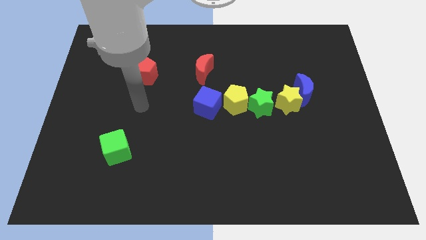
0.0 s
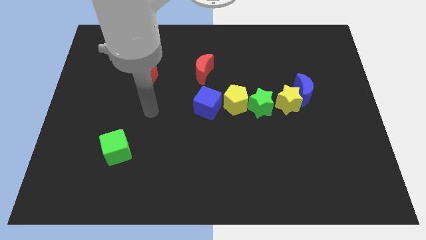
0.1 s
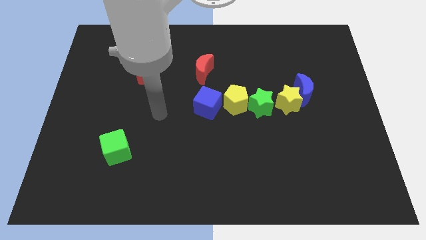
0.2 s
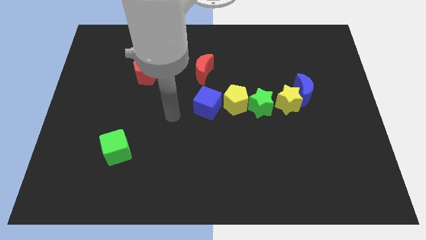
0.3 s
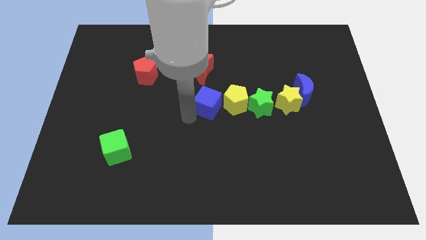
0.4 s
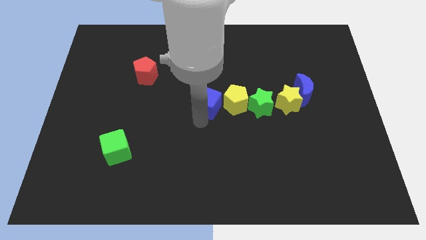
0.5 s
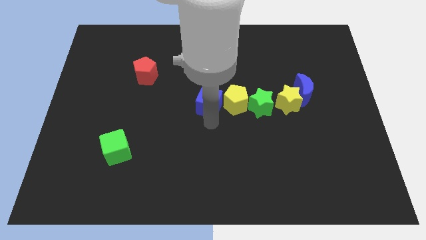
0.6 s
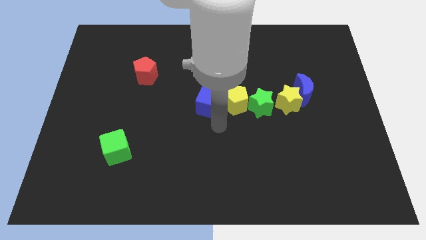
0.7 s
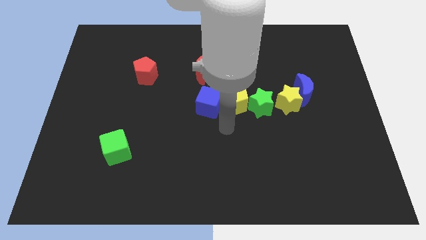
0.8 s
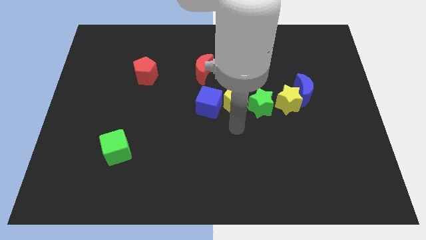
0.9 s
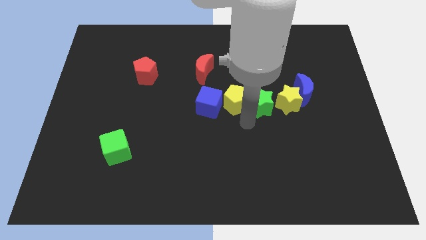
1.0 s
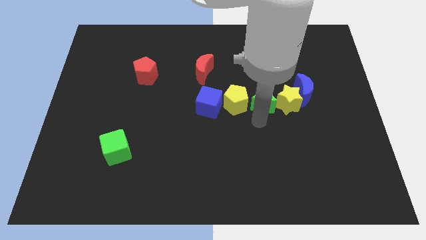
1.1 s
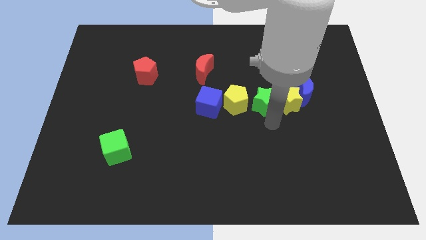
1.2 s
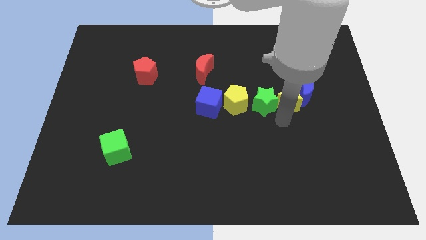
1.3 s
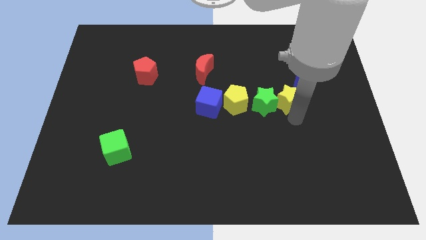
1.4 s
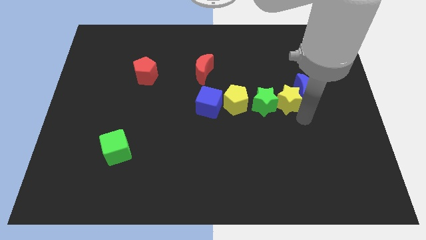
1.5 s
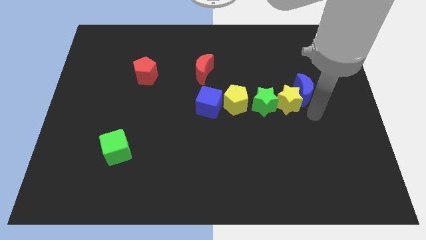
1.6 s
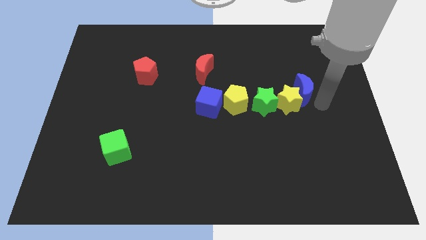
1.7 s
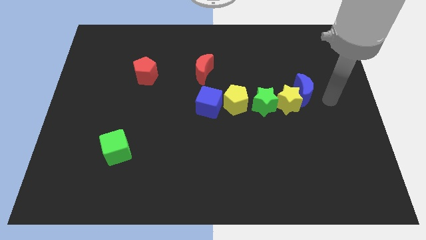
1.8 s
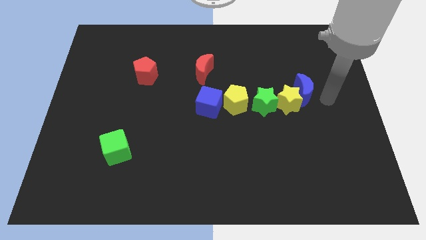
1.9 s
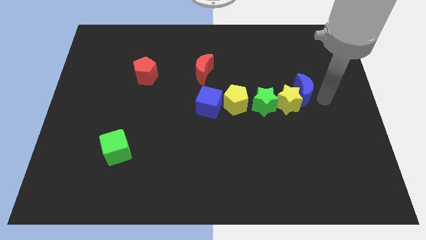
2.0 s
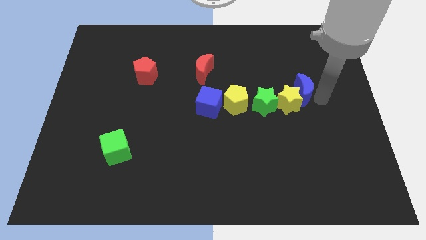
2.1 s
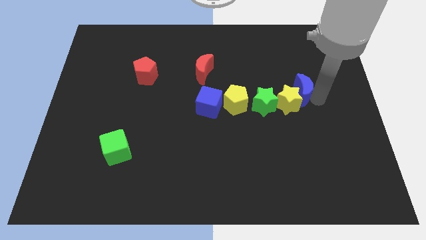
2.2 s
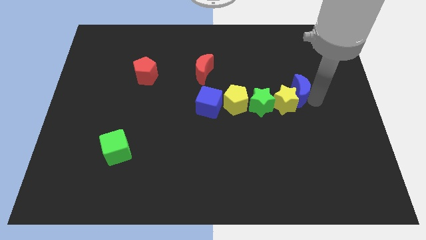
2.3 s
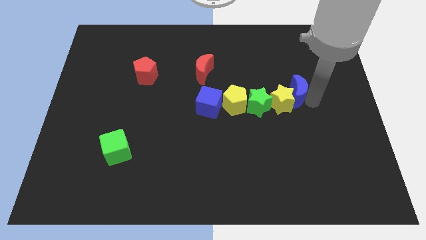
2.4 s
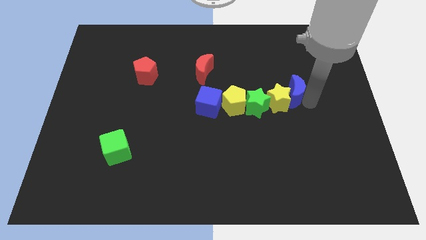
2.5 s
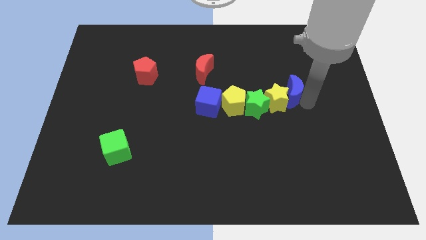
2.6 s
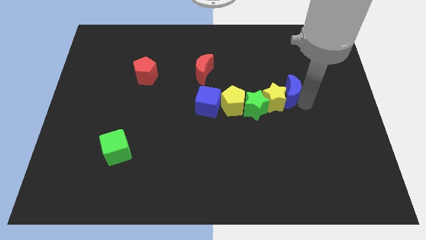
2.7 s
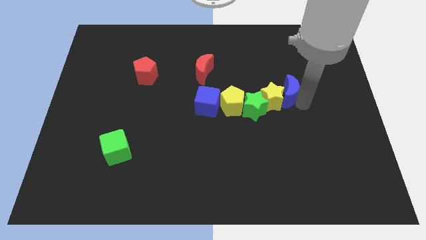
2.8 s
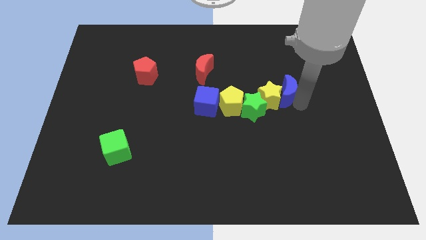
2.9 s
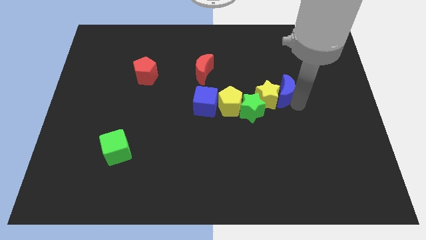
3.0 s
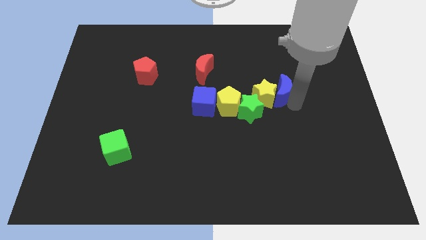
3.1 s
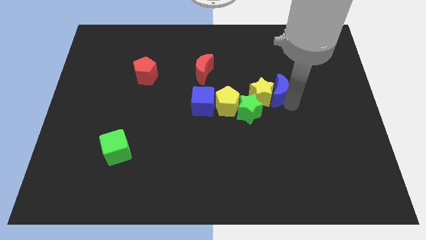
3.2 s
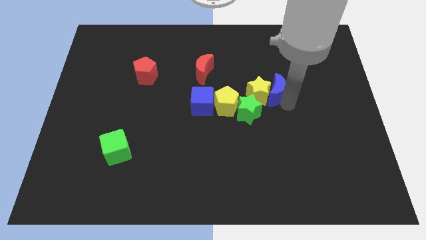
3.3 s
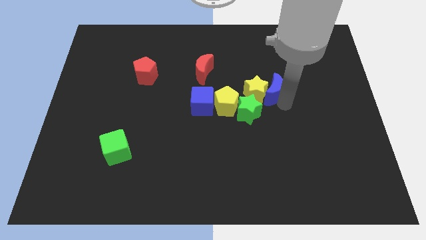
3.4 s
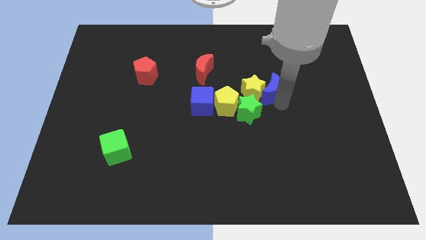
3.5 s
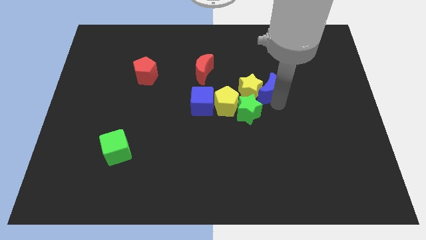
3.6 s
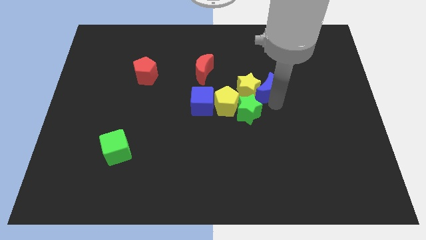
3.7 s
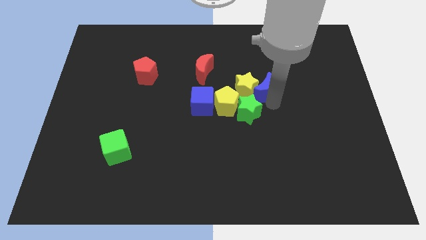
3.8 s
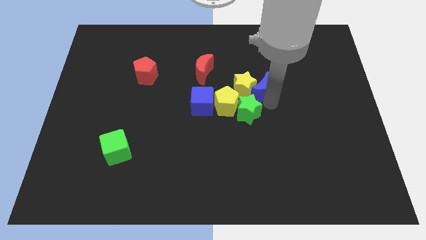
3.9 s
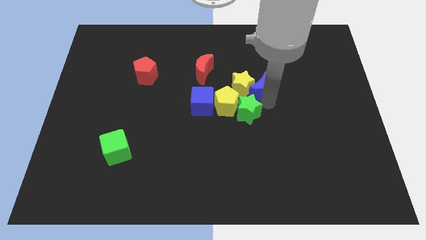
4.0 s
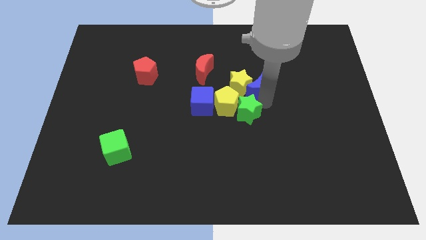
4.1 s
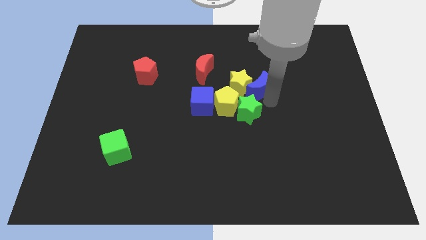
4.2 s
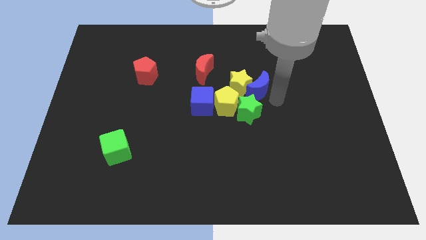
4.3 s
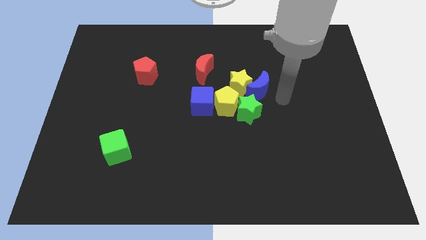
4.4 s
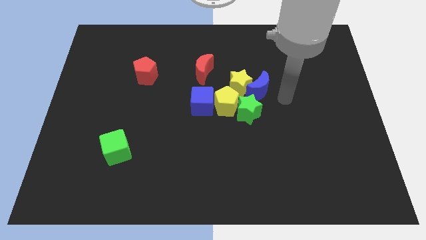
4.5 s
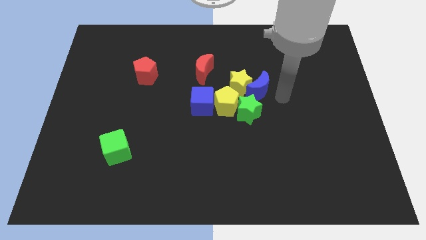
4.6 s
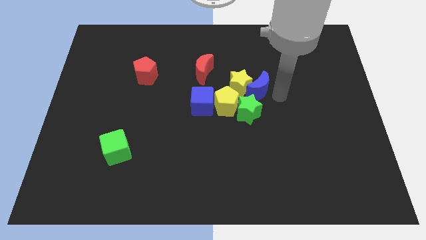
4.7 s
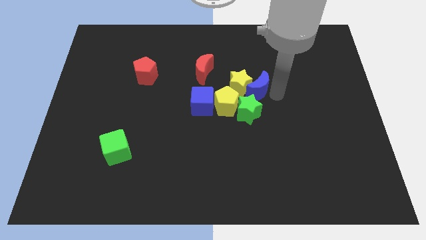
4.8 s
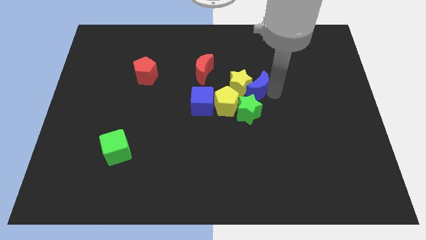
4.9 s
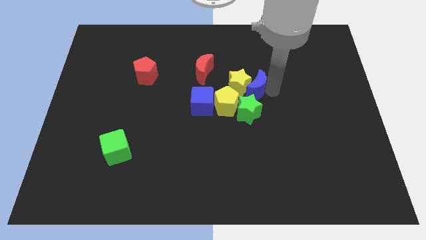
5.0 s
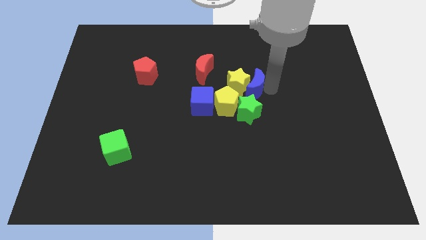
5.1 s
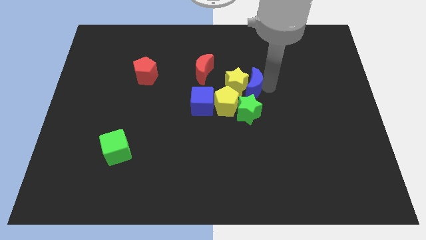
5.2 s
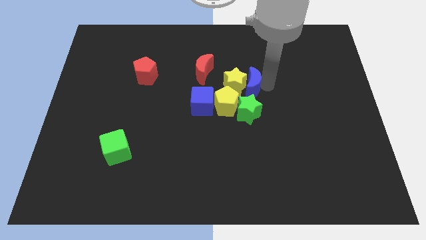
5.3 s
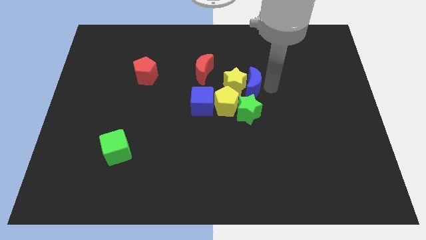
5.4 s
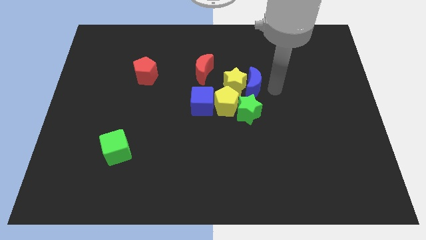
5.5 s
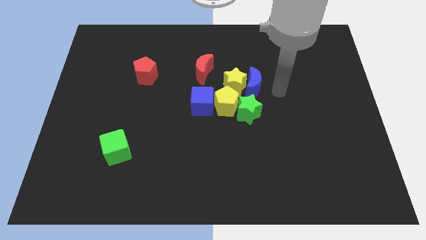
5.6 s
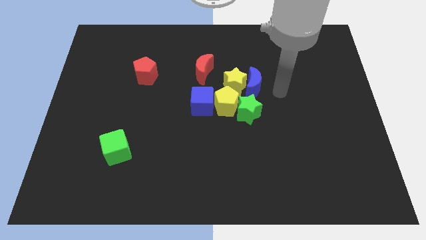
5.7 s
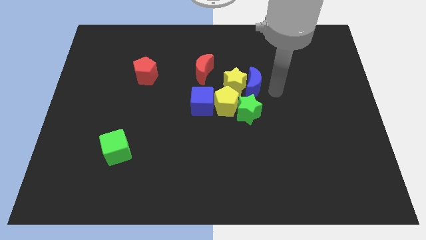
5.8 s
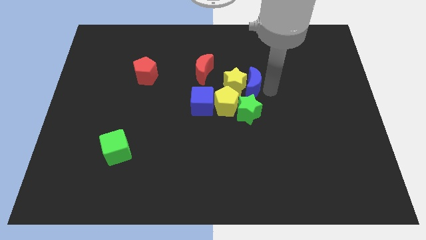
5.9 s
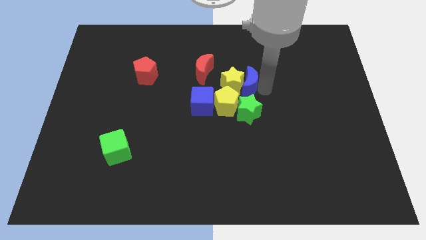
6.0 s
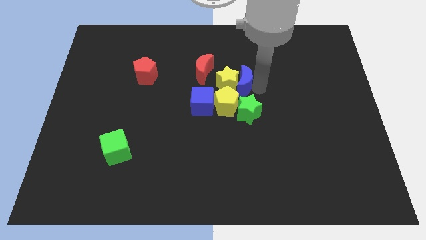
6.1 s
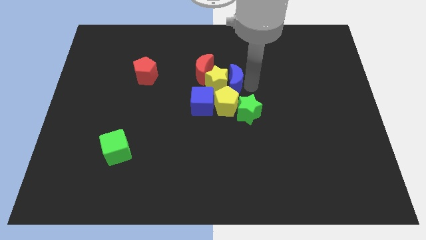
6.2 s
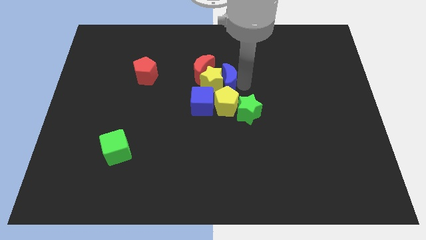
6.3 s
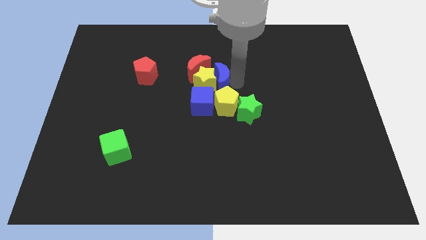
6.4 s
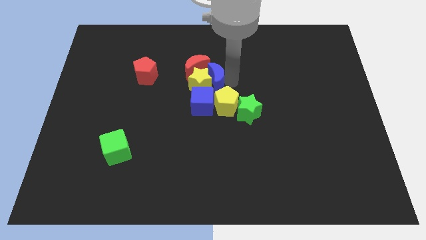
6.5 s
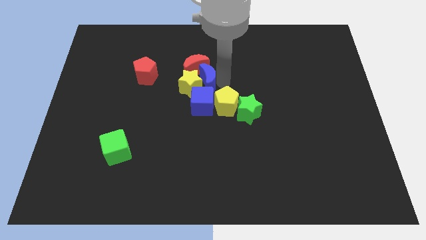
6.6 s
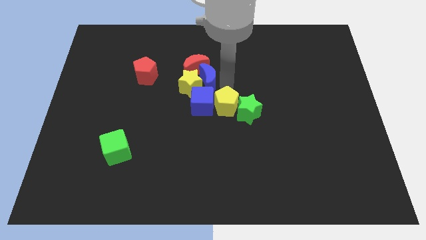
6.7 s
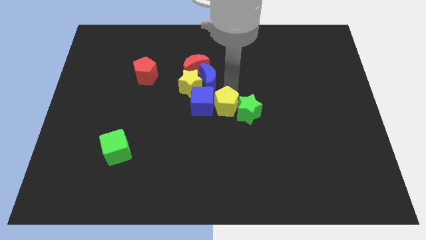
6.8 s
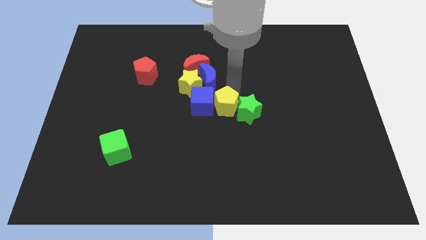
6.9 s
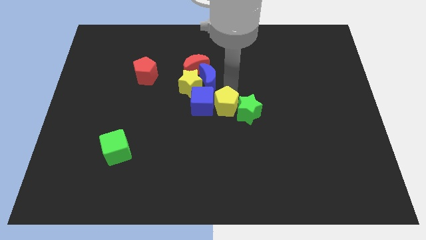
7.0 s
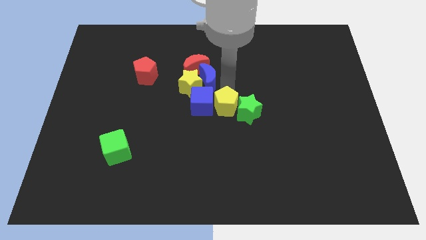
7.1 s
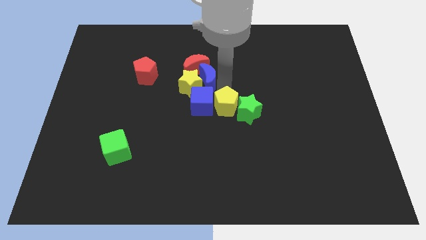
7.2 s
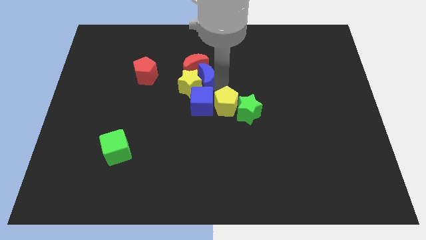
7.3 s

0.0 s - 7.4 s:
slide the blue moon to the right side of the red pentagon
